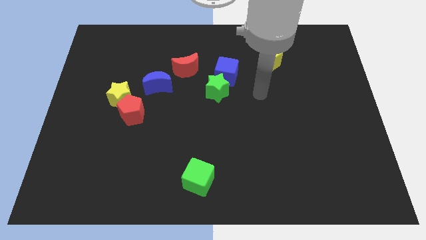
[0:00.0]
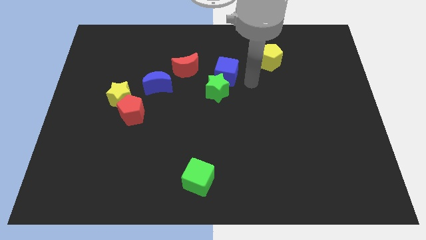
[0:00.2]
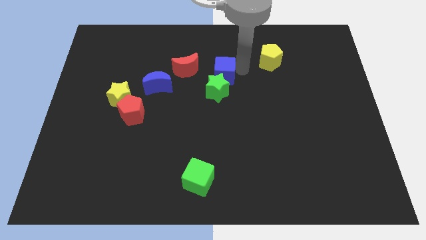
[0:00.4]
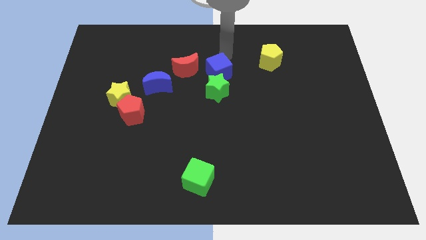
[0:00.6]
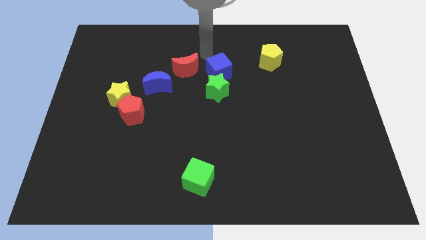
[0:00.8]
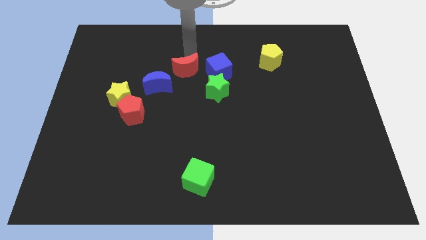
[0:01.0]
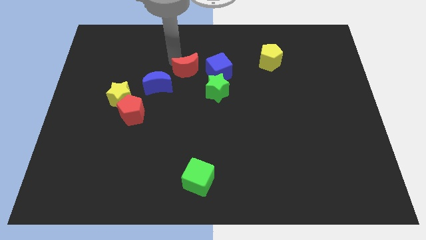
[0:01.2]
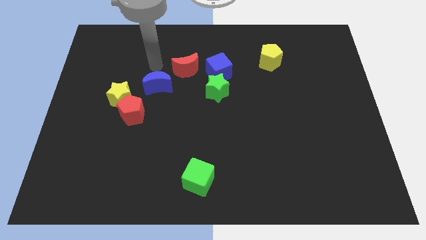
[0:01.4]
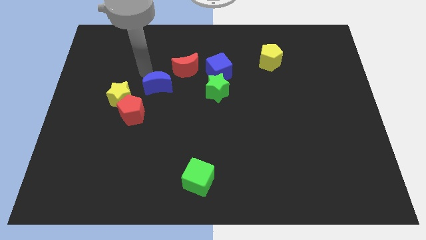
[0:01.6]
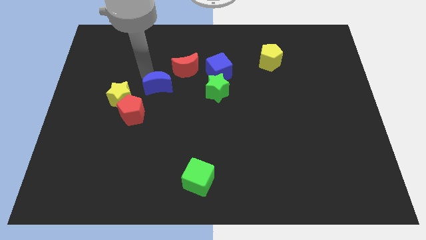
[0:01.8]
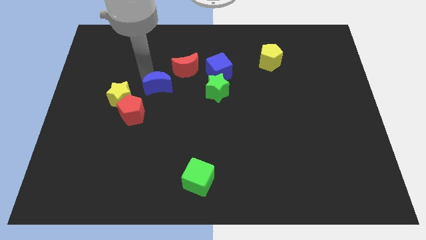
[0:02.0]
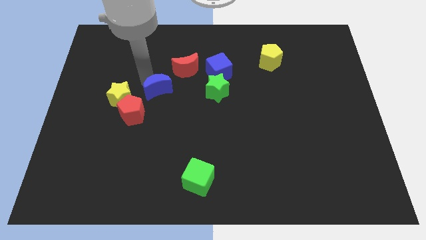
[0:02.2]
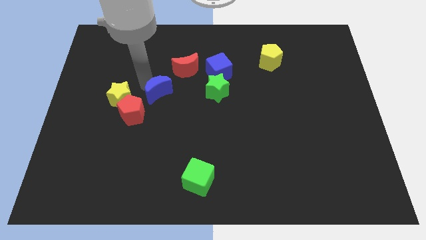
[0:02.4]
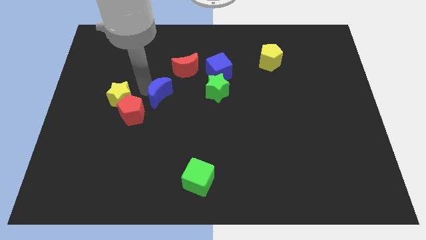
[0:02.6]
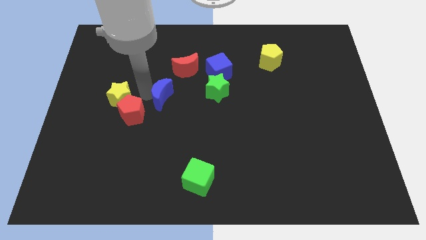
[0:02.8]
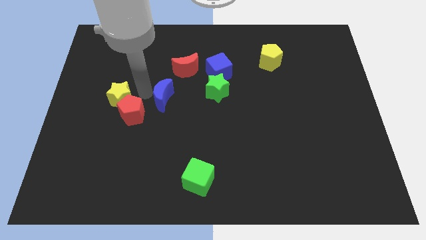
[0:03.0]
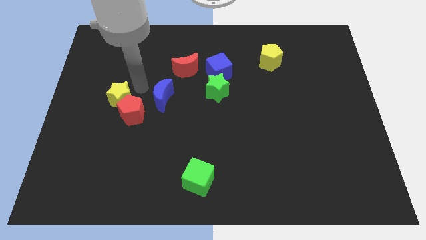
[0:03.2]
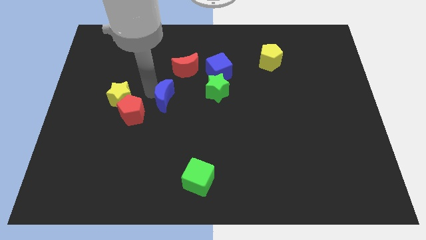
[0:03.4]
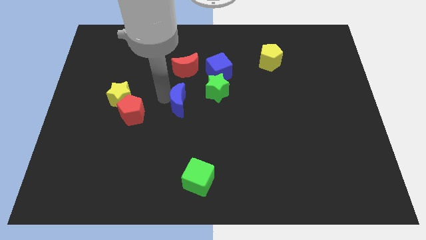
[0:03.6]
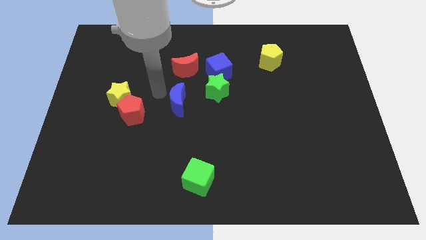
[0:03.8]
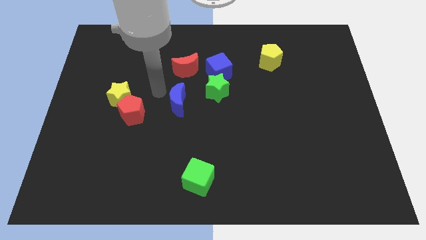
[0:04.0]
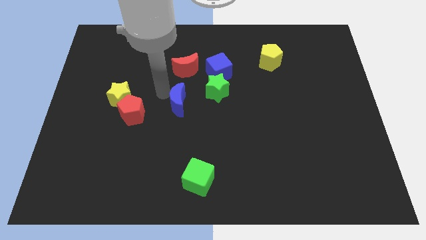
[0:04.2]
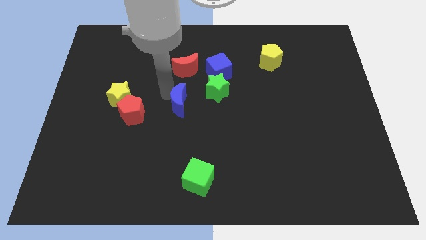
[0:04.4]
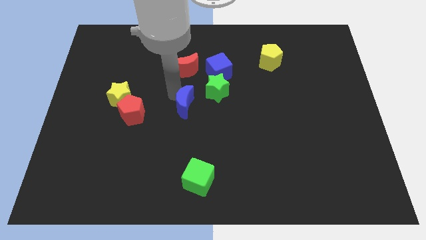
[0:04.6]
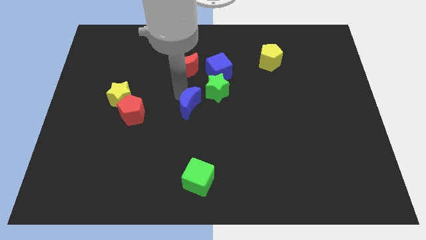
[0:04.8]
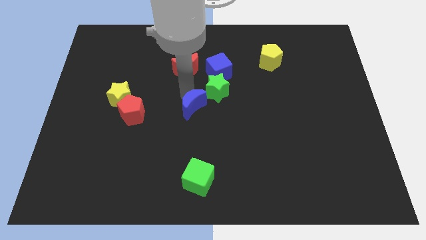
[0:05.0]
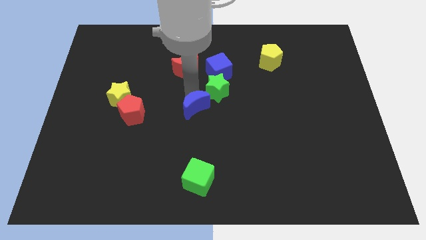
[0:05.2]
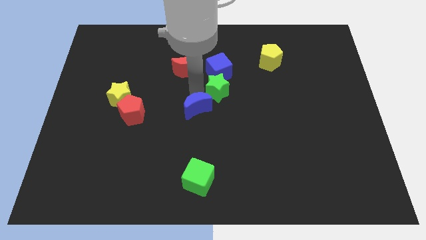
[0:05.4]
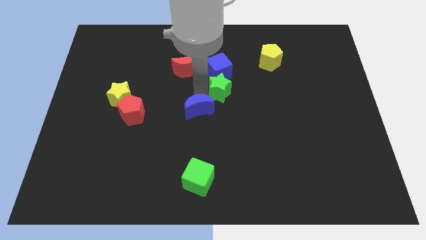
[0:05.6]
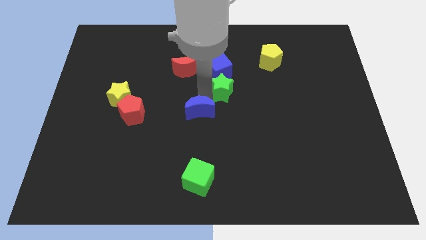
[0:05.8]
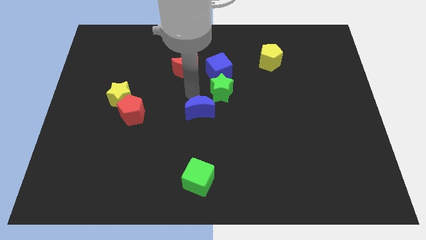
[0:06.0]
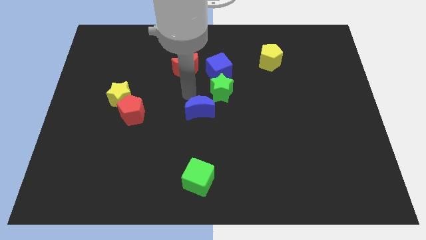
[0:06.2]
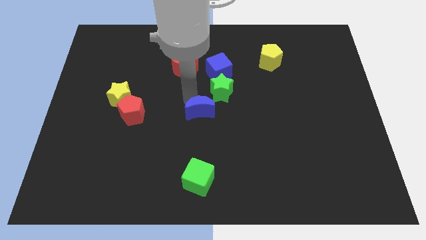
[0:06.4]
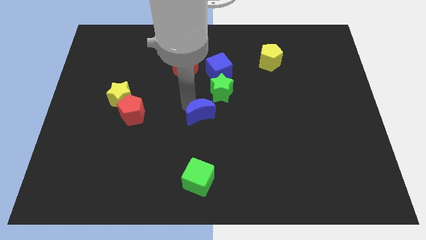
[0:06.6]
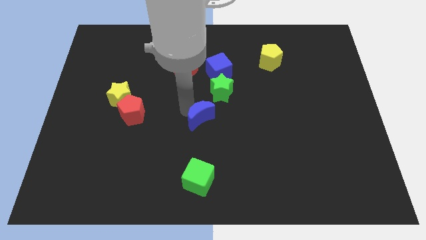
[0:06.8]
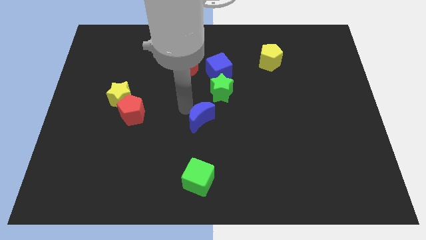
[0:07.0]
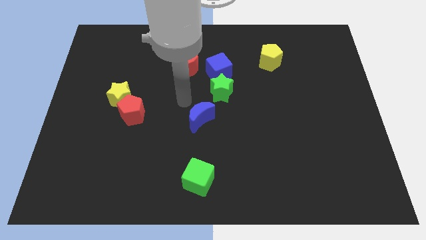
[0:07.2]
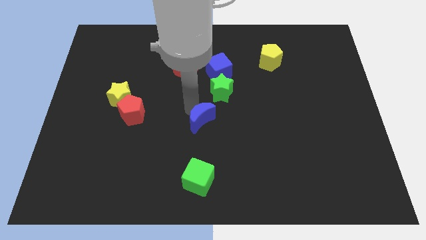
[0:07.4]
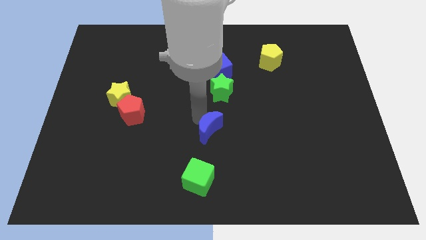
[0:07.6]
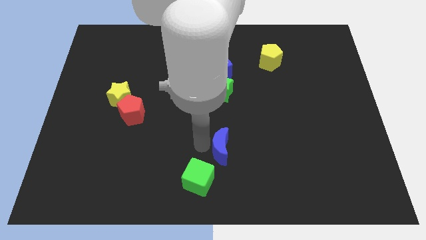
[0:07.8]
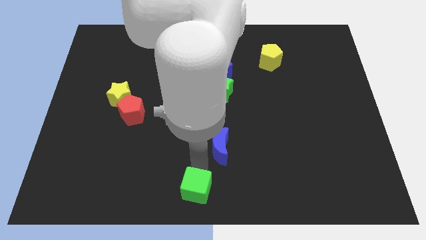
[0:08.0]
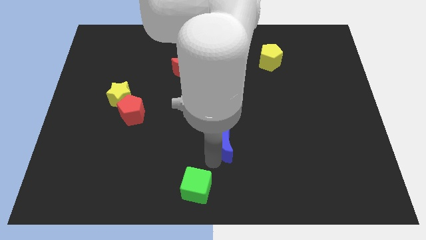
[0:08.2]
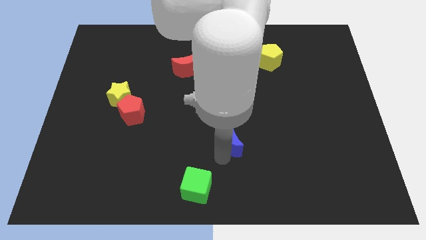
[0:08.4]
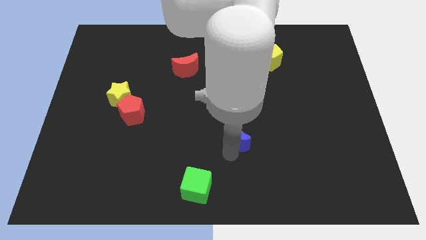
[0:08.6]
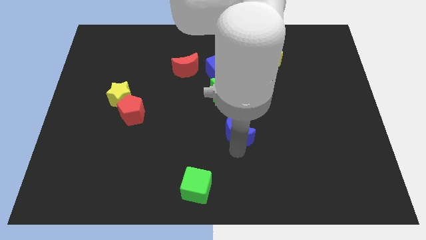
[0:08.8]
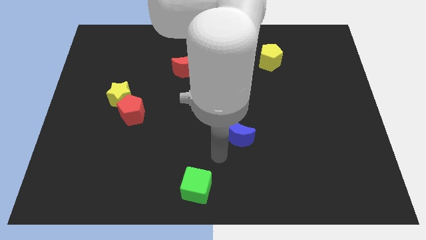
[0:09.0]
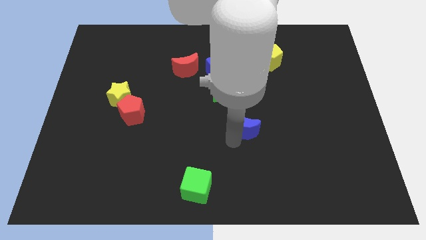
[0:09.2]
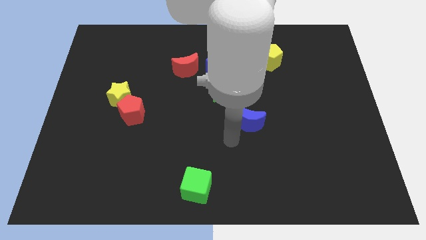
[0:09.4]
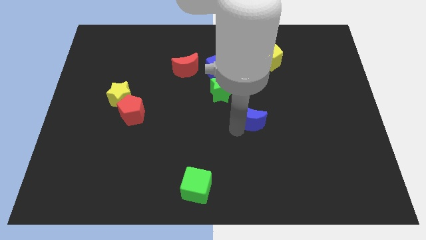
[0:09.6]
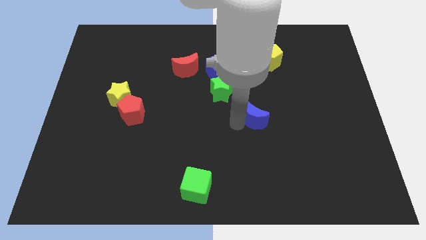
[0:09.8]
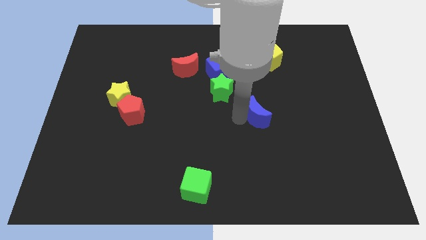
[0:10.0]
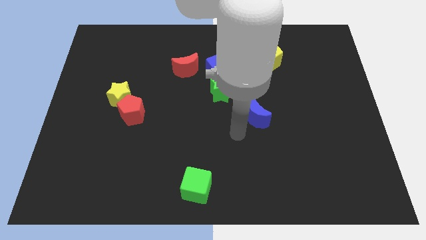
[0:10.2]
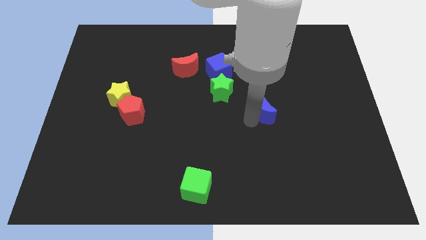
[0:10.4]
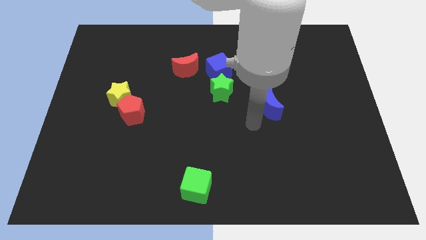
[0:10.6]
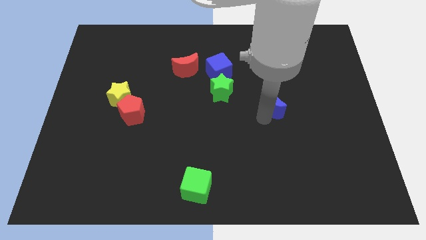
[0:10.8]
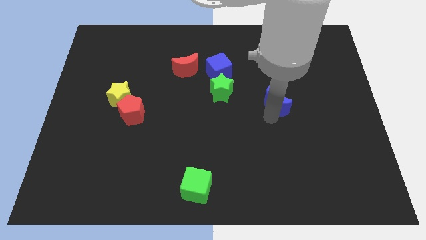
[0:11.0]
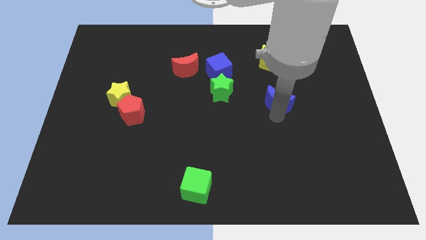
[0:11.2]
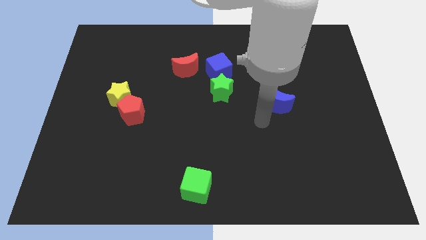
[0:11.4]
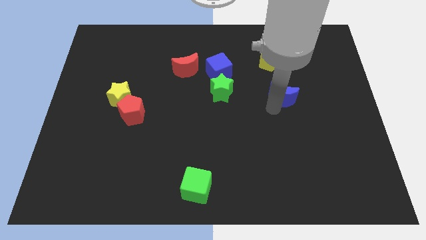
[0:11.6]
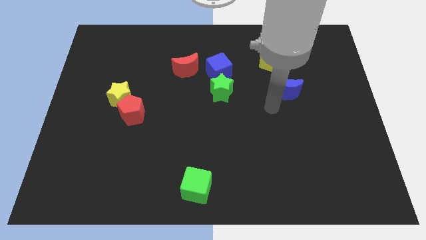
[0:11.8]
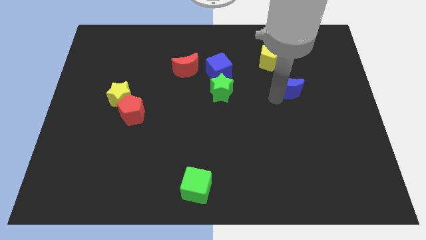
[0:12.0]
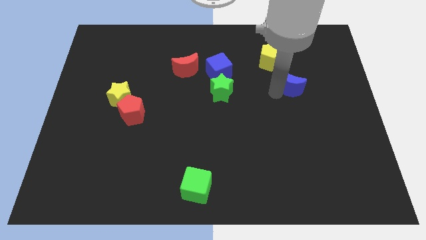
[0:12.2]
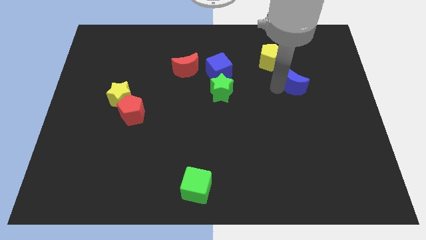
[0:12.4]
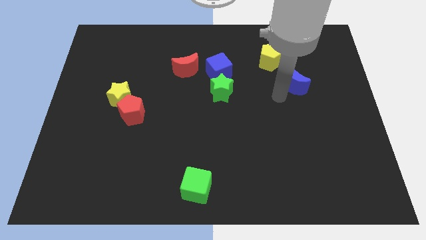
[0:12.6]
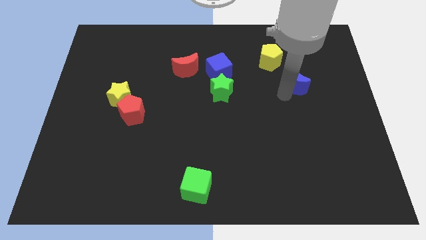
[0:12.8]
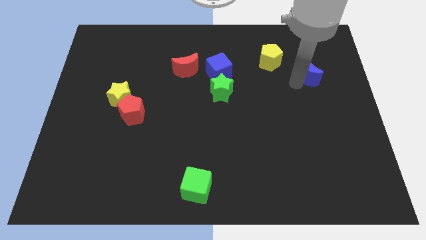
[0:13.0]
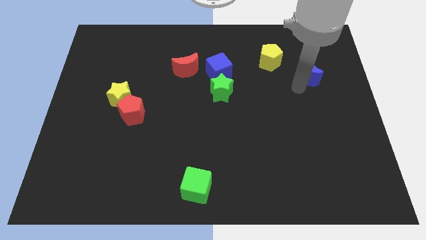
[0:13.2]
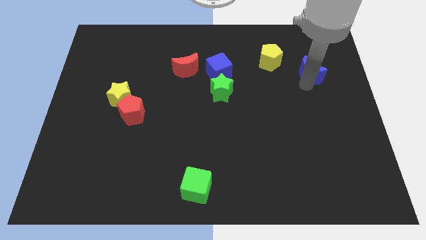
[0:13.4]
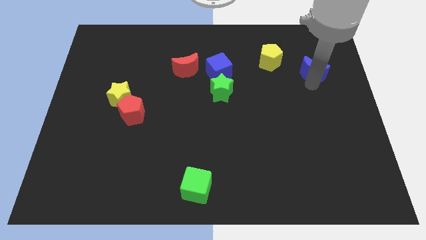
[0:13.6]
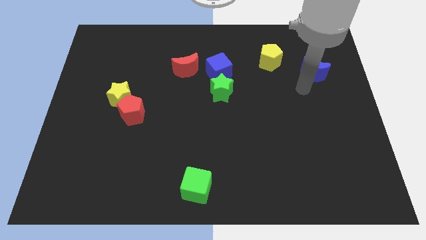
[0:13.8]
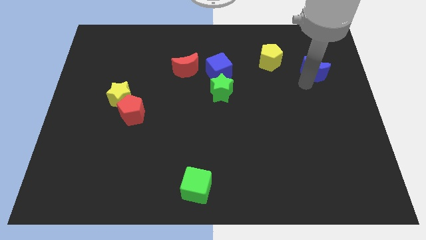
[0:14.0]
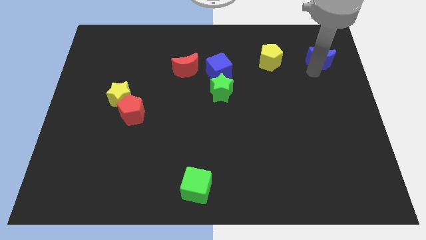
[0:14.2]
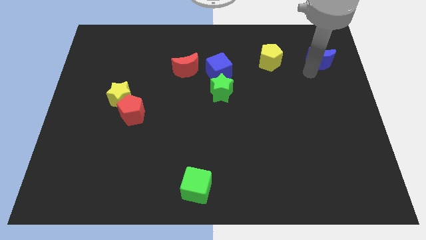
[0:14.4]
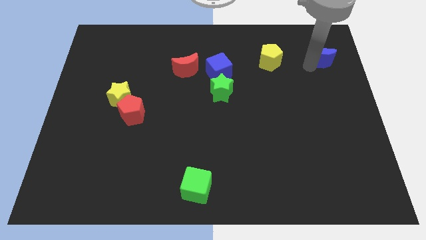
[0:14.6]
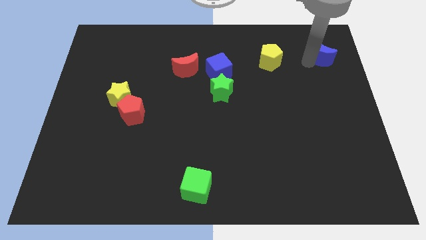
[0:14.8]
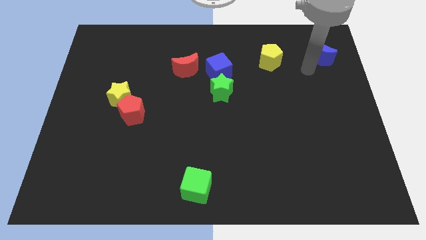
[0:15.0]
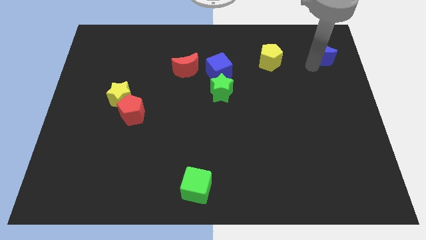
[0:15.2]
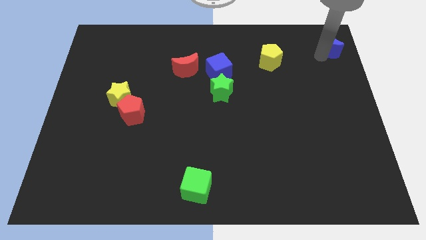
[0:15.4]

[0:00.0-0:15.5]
move the blue moon to the top right of the board
